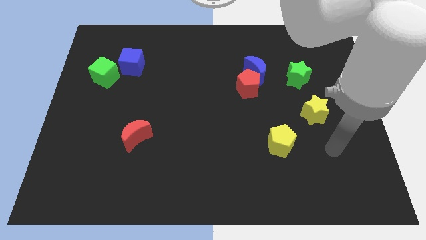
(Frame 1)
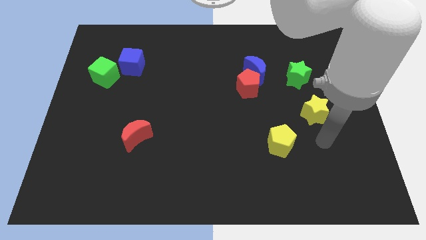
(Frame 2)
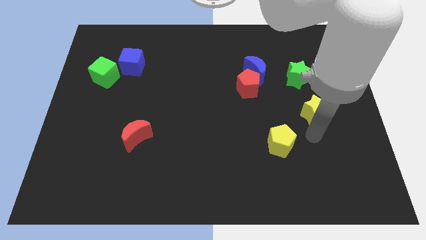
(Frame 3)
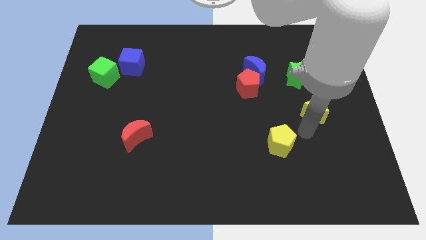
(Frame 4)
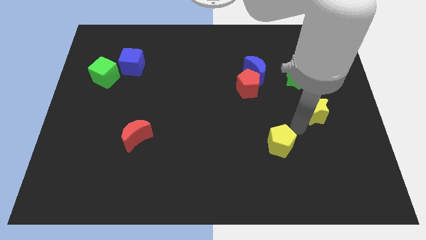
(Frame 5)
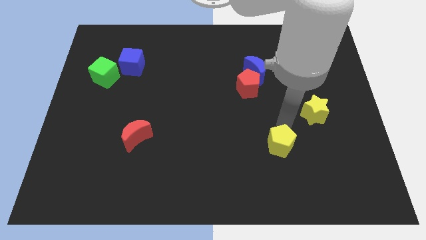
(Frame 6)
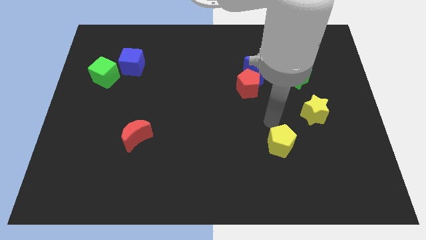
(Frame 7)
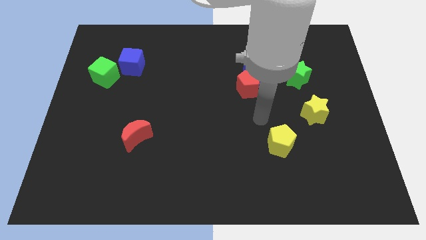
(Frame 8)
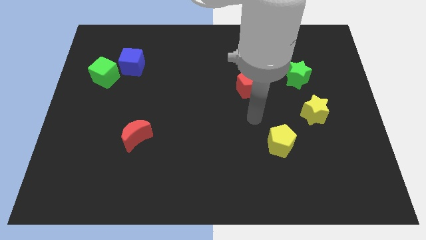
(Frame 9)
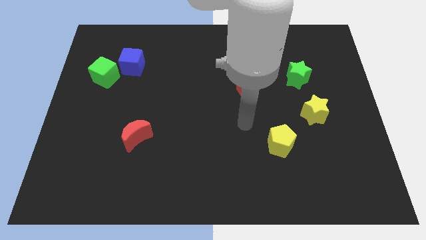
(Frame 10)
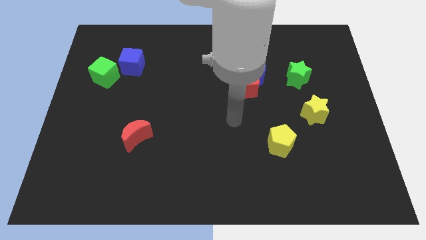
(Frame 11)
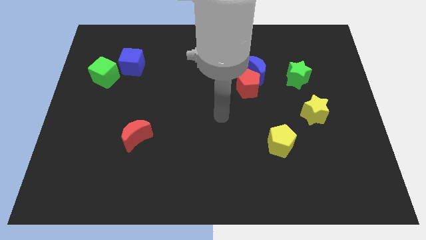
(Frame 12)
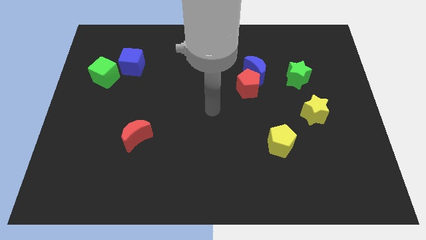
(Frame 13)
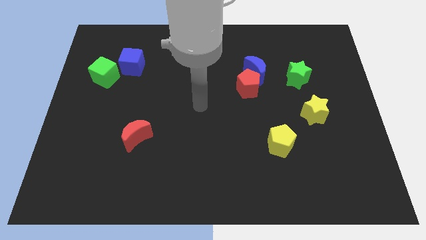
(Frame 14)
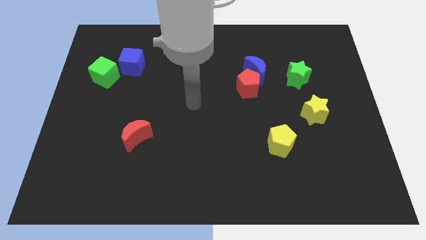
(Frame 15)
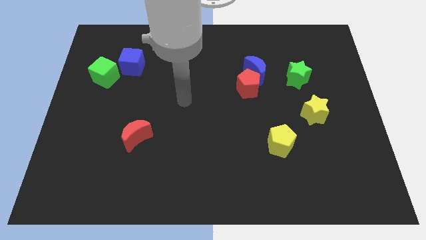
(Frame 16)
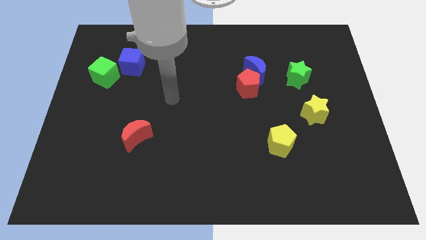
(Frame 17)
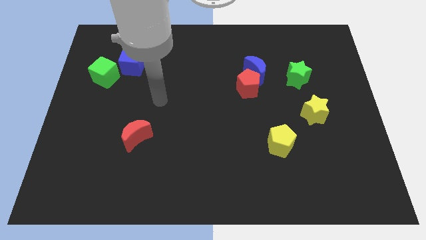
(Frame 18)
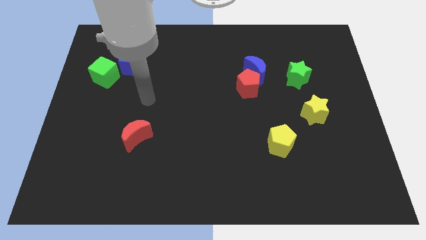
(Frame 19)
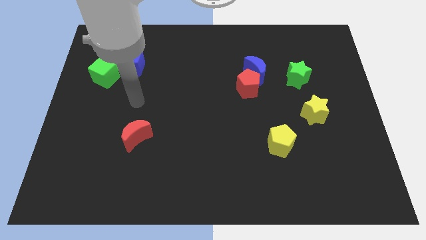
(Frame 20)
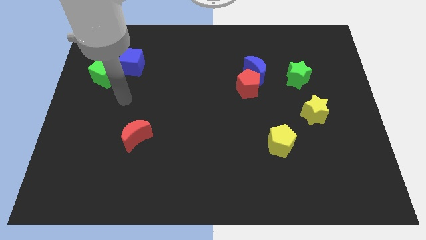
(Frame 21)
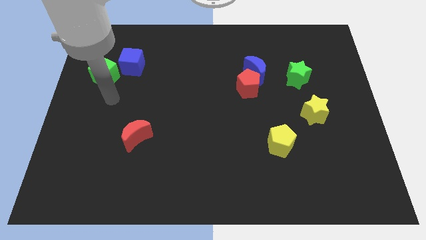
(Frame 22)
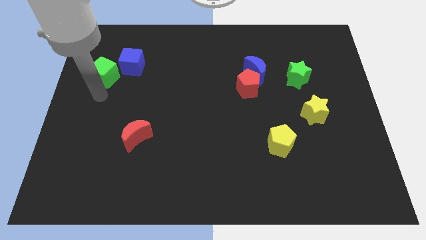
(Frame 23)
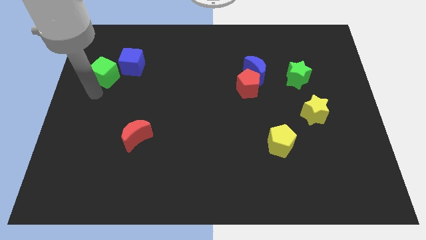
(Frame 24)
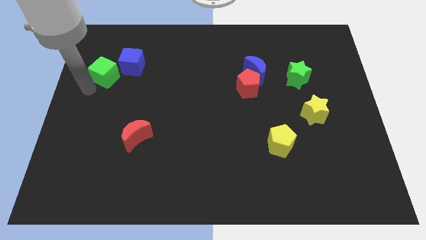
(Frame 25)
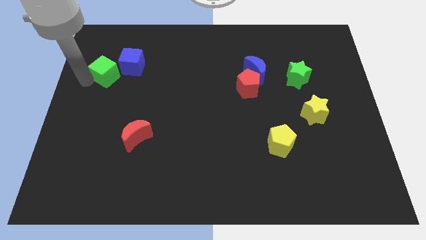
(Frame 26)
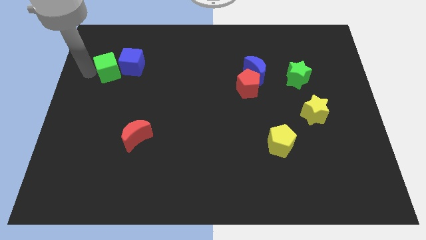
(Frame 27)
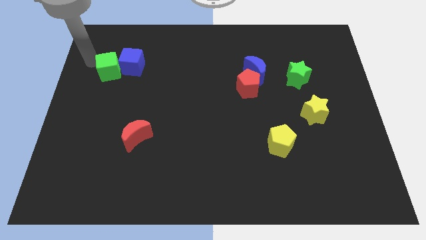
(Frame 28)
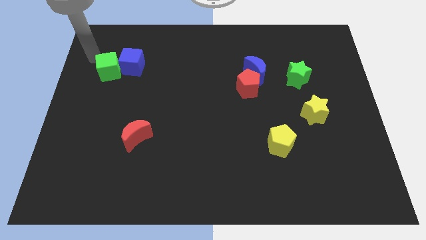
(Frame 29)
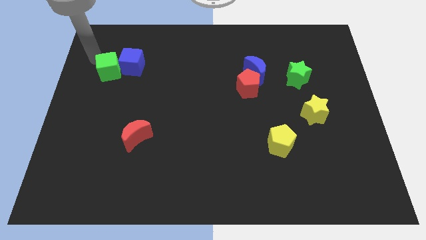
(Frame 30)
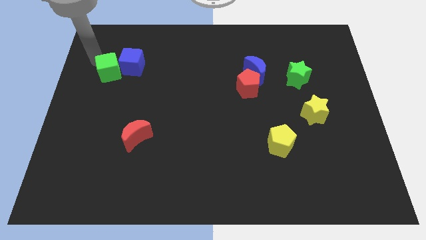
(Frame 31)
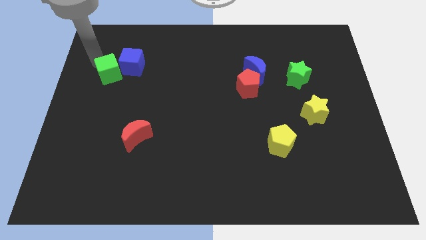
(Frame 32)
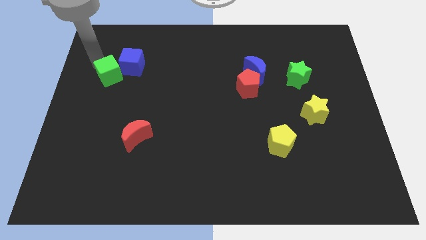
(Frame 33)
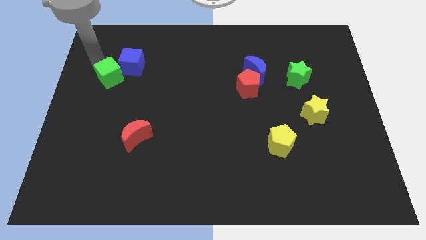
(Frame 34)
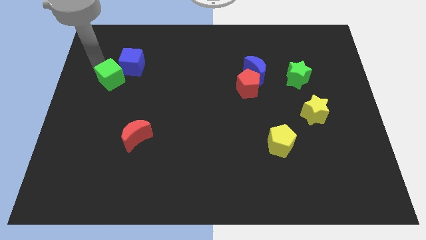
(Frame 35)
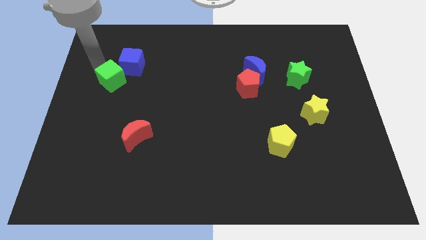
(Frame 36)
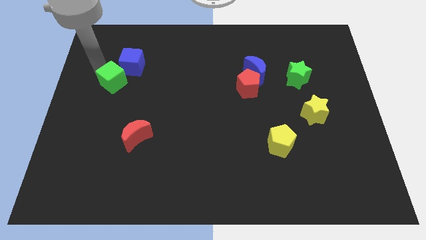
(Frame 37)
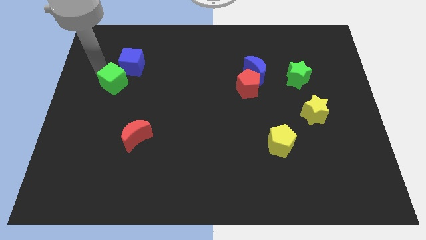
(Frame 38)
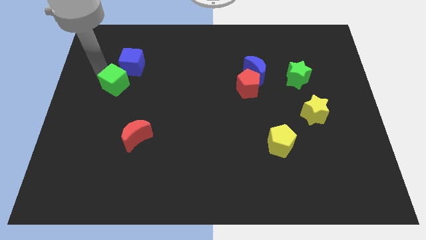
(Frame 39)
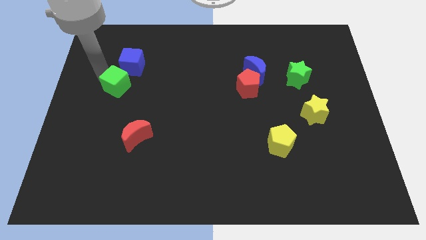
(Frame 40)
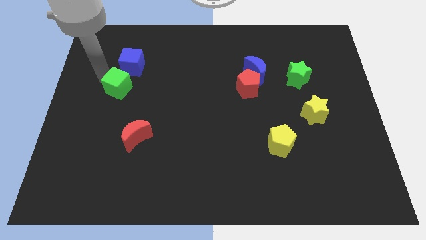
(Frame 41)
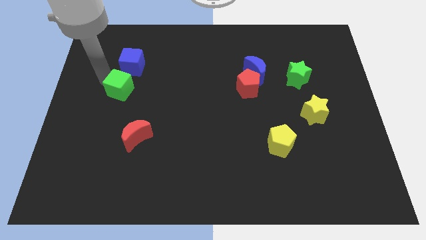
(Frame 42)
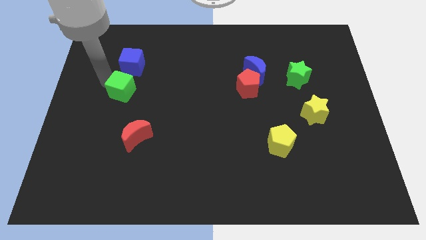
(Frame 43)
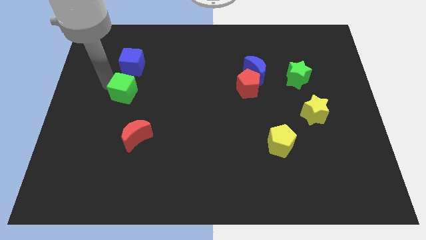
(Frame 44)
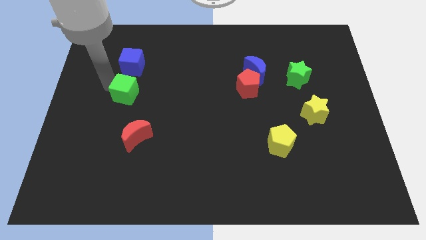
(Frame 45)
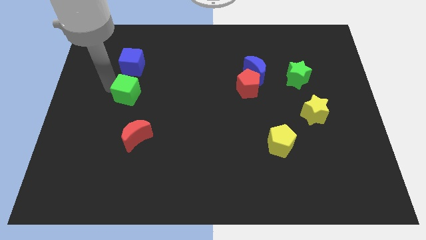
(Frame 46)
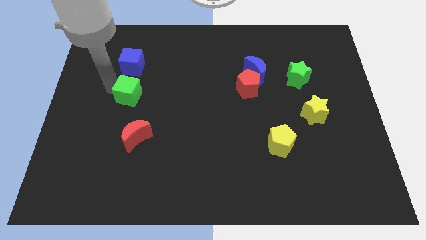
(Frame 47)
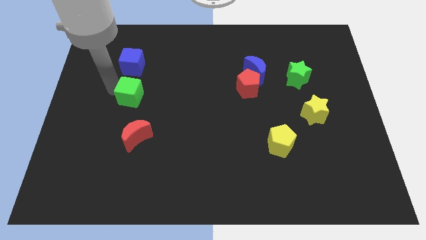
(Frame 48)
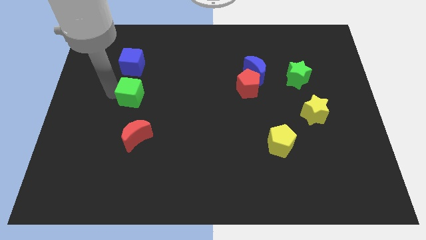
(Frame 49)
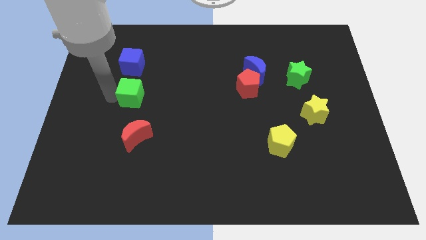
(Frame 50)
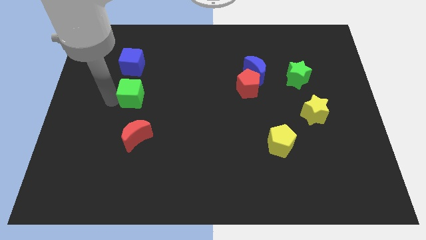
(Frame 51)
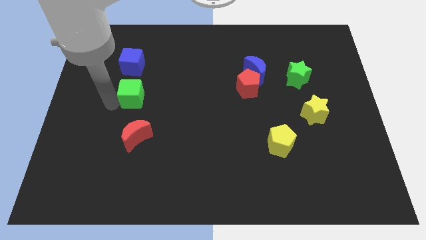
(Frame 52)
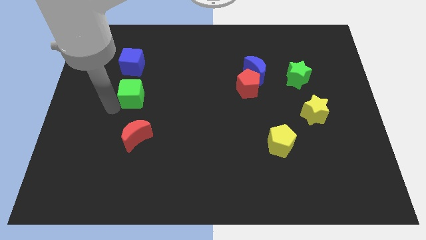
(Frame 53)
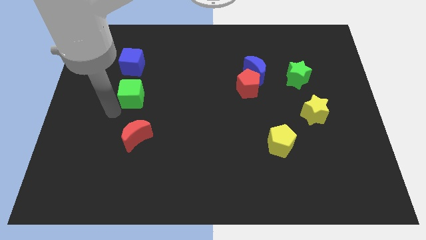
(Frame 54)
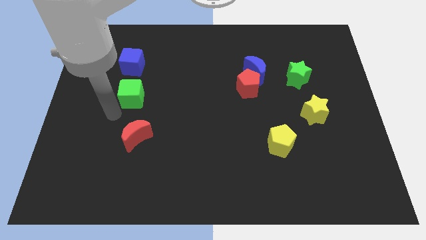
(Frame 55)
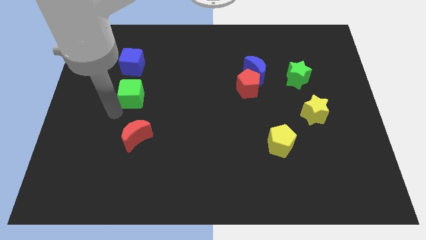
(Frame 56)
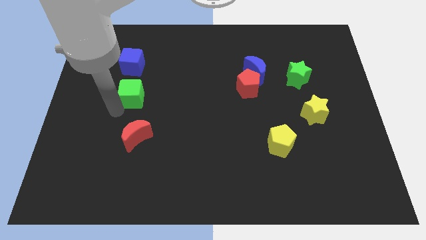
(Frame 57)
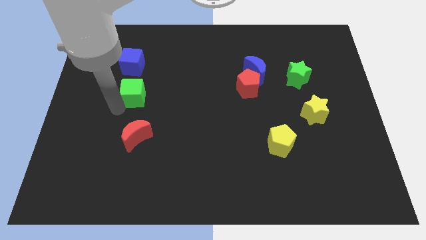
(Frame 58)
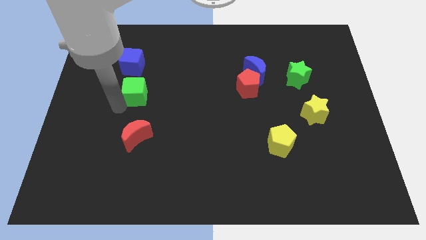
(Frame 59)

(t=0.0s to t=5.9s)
slightly push the green cube right

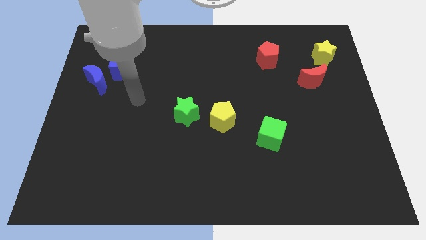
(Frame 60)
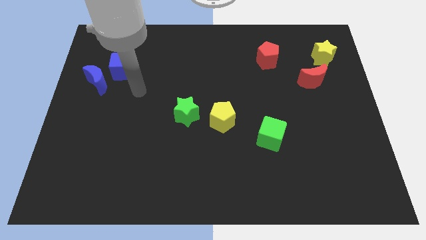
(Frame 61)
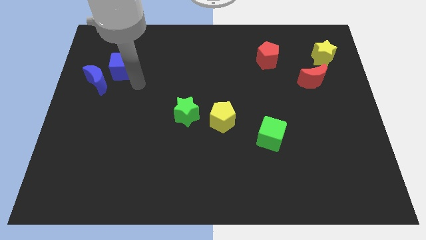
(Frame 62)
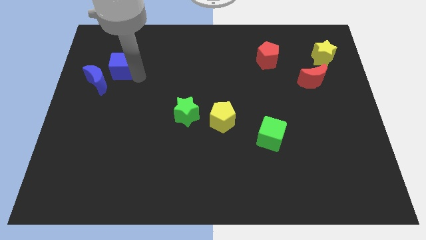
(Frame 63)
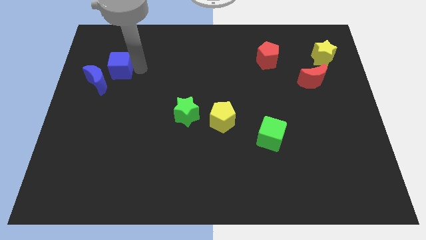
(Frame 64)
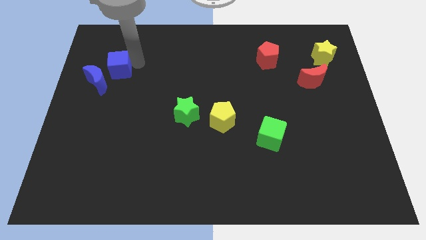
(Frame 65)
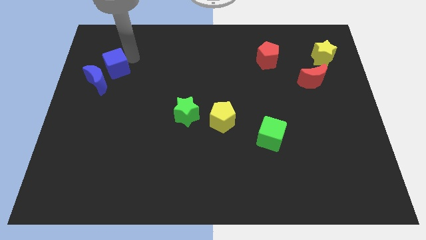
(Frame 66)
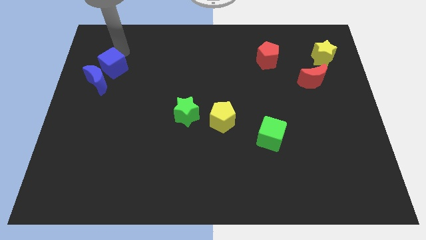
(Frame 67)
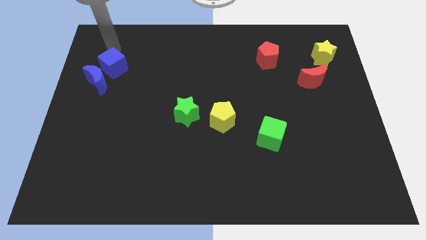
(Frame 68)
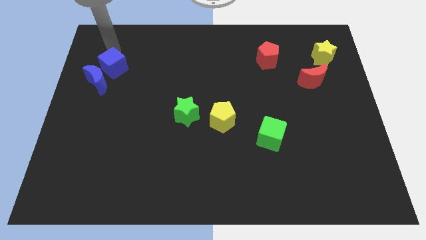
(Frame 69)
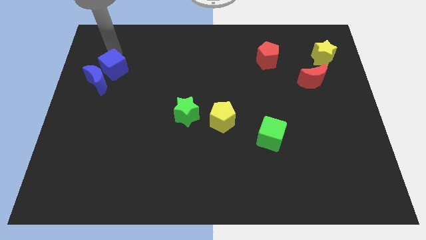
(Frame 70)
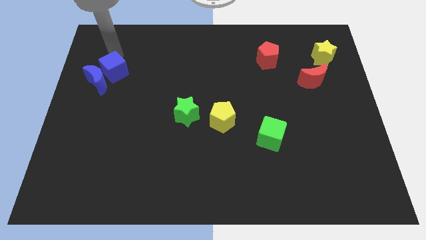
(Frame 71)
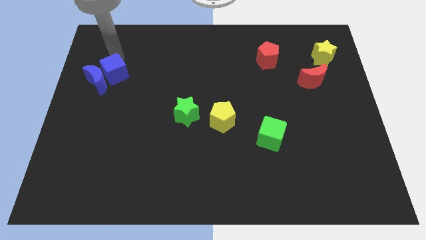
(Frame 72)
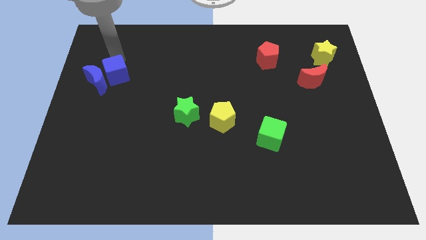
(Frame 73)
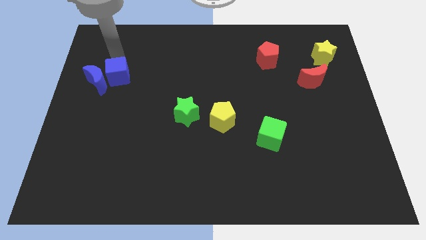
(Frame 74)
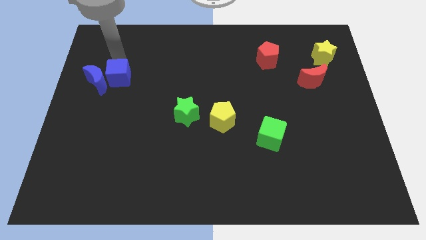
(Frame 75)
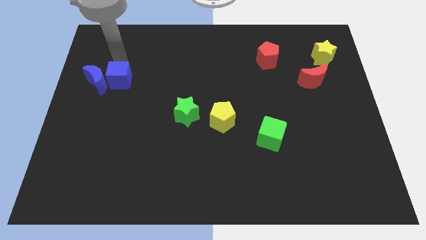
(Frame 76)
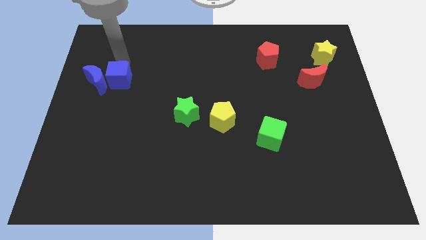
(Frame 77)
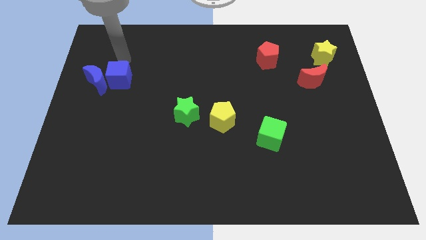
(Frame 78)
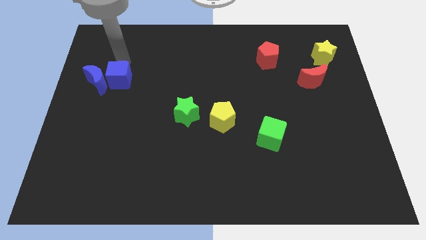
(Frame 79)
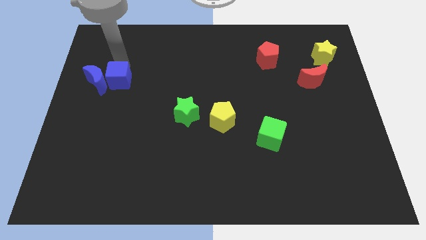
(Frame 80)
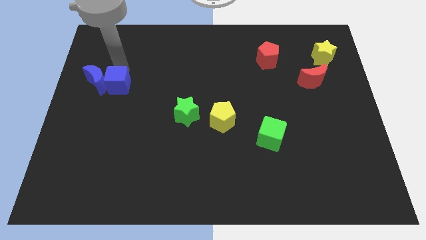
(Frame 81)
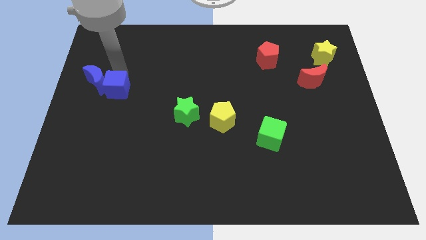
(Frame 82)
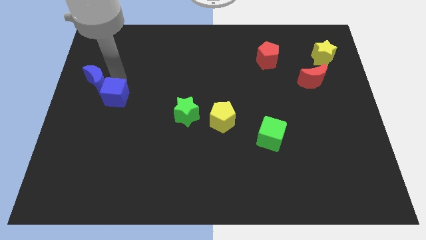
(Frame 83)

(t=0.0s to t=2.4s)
slightly push the blue cube downwards
